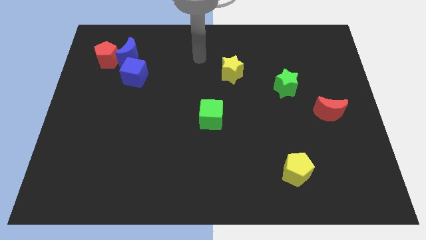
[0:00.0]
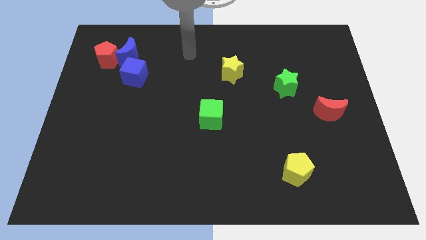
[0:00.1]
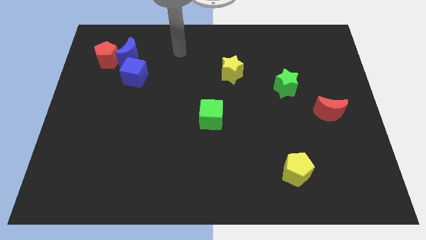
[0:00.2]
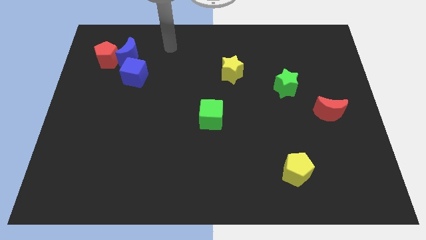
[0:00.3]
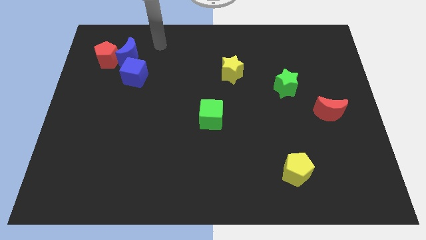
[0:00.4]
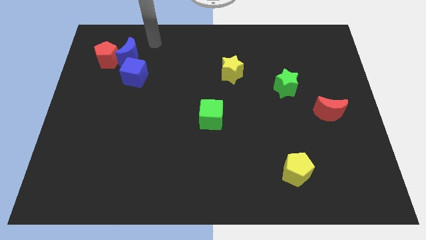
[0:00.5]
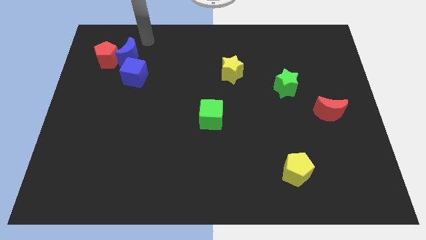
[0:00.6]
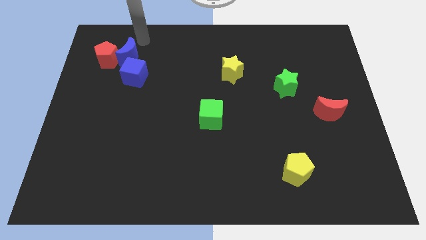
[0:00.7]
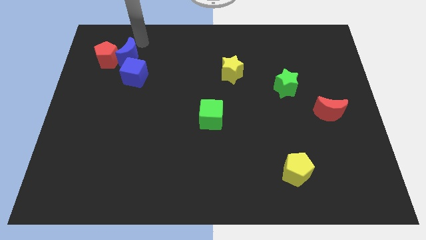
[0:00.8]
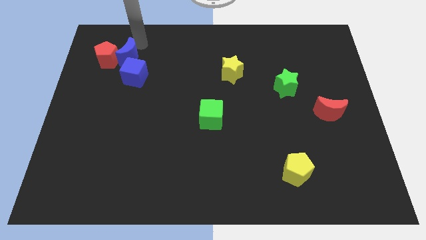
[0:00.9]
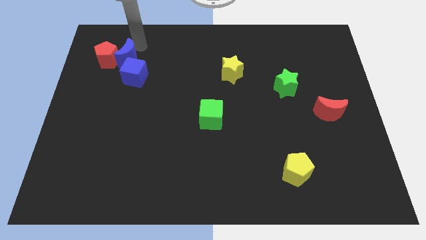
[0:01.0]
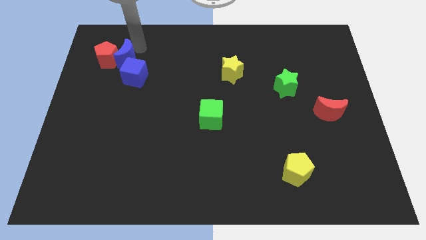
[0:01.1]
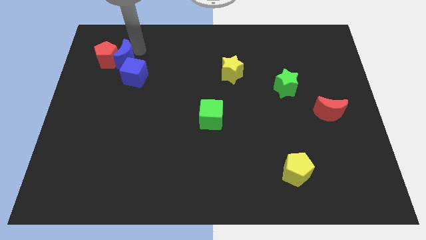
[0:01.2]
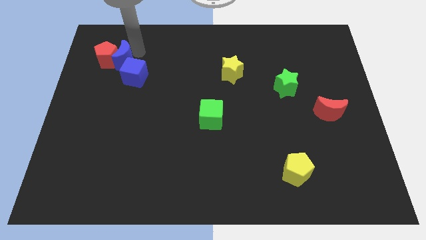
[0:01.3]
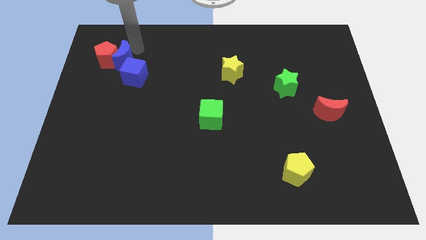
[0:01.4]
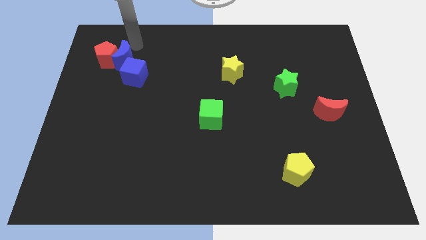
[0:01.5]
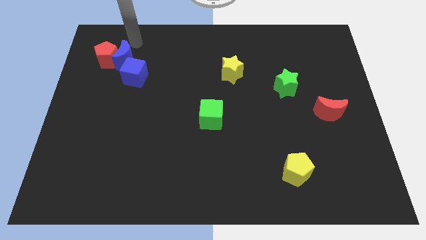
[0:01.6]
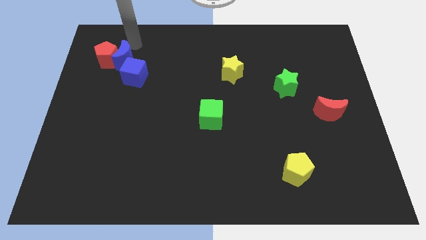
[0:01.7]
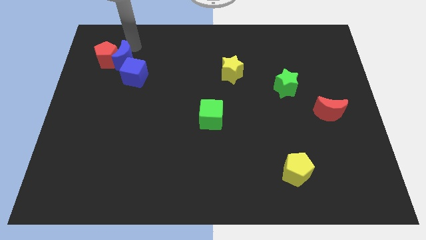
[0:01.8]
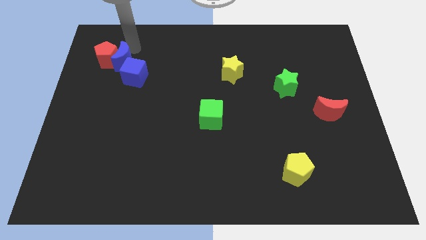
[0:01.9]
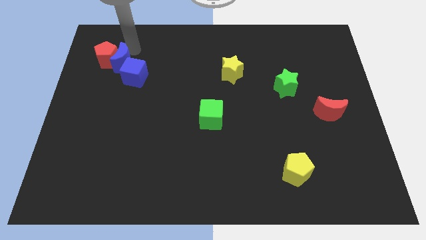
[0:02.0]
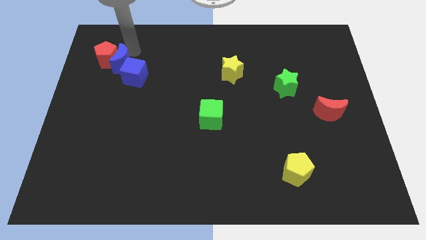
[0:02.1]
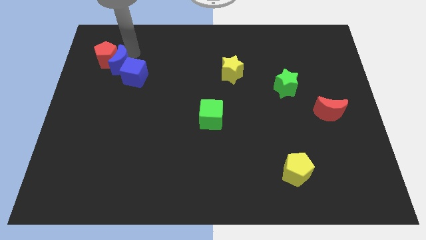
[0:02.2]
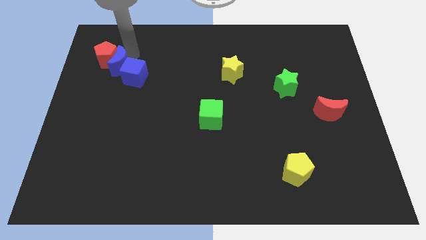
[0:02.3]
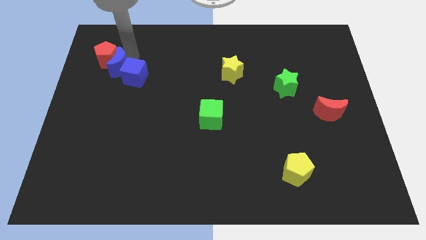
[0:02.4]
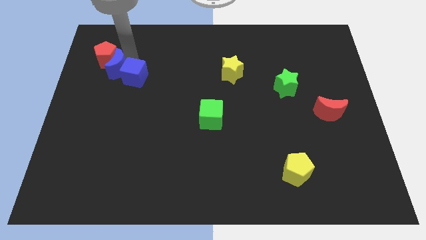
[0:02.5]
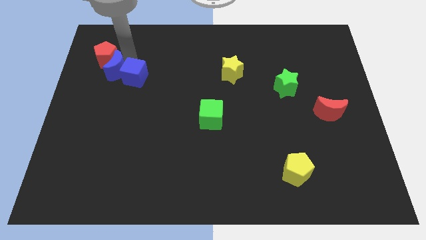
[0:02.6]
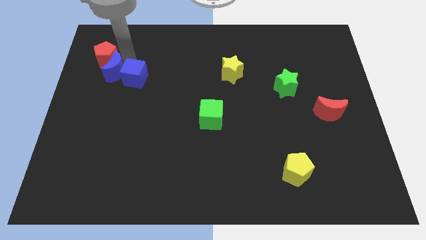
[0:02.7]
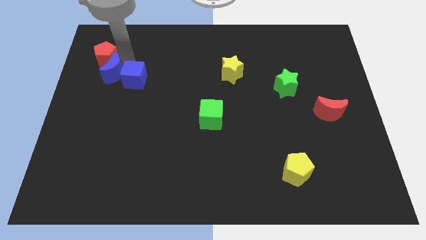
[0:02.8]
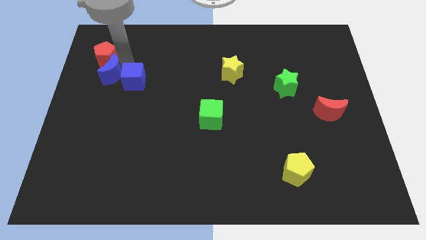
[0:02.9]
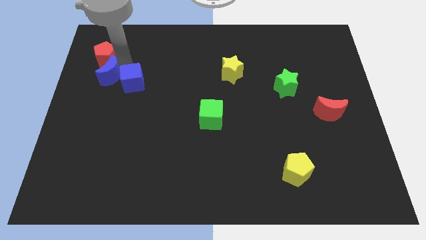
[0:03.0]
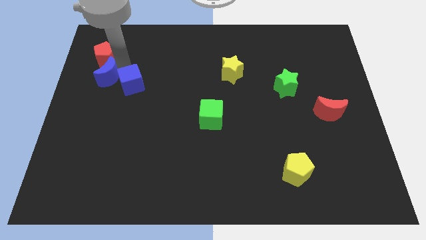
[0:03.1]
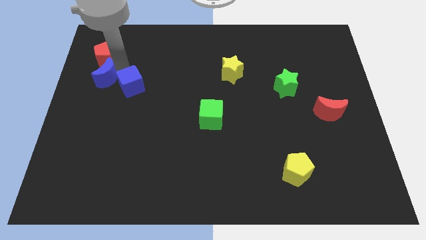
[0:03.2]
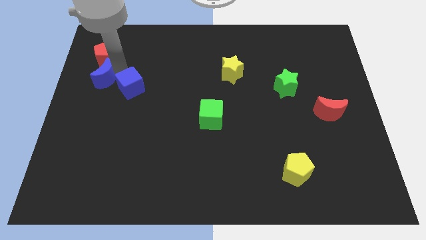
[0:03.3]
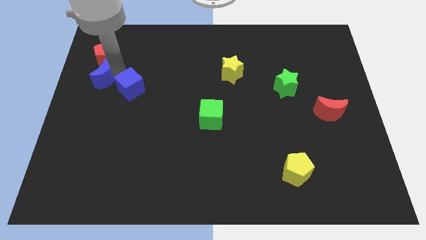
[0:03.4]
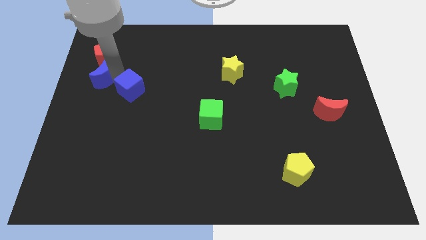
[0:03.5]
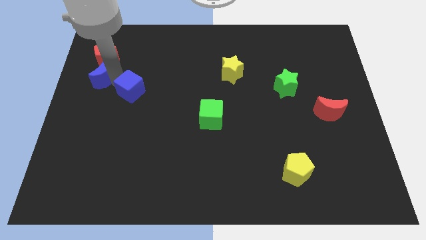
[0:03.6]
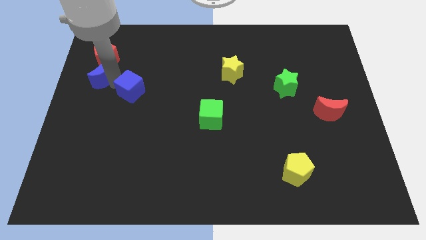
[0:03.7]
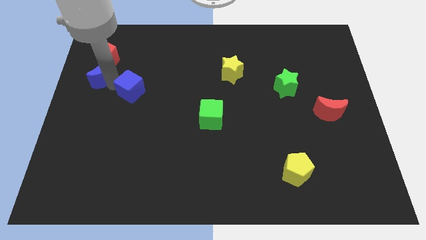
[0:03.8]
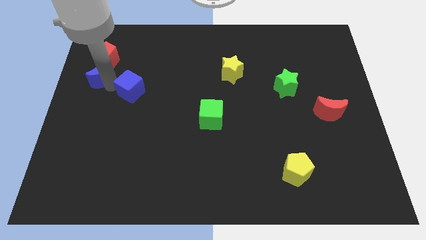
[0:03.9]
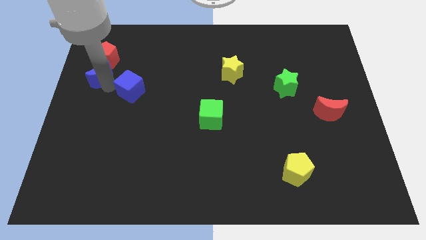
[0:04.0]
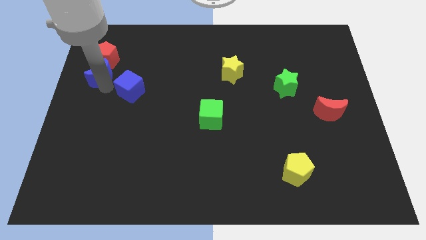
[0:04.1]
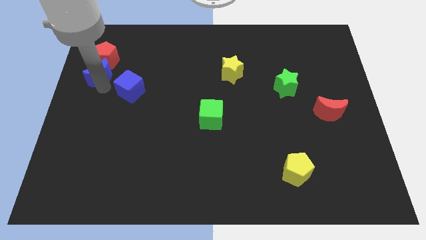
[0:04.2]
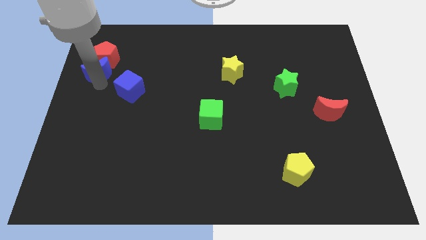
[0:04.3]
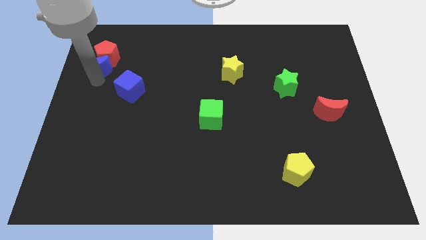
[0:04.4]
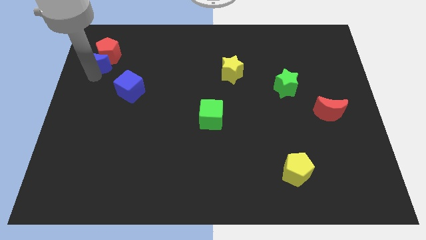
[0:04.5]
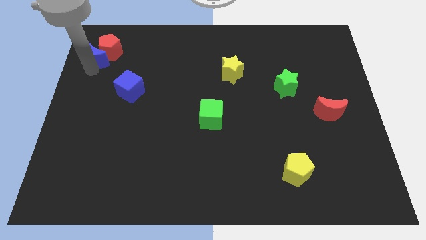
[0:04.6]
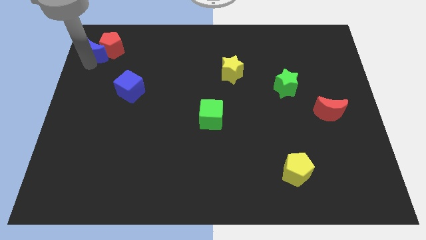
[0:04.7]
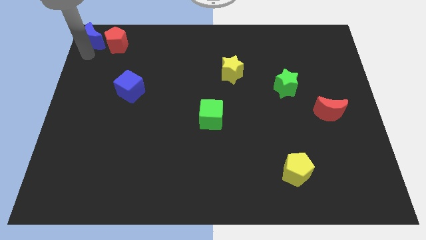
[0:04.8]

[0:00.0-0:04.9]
slide the blue moon to the top left corner

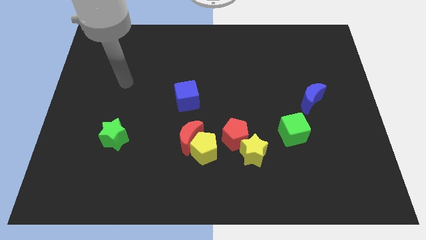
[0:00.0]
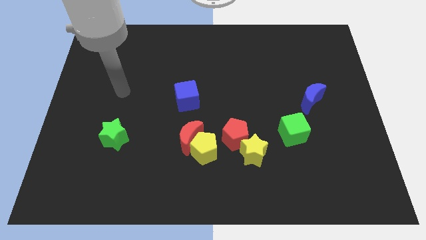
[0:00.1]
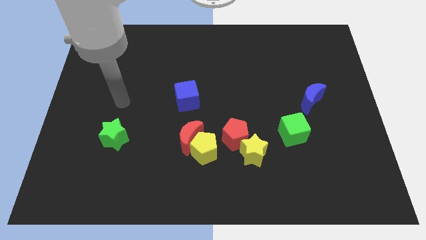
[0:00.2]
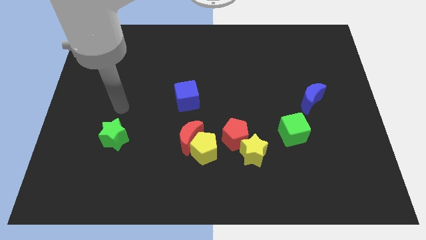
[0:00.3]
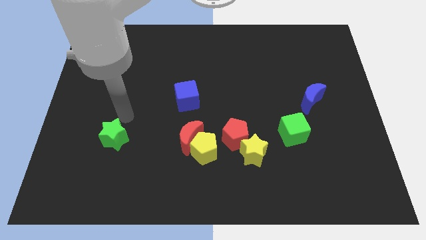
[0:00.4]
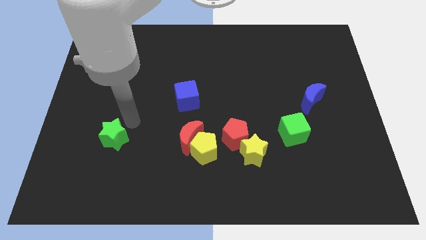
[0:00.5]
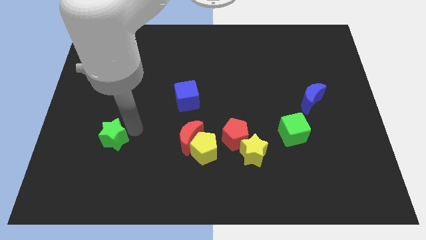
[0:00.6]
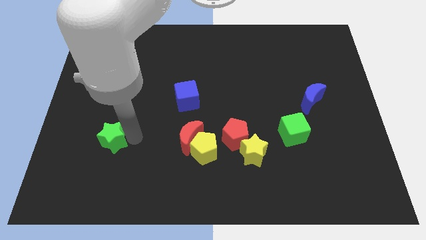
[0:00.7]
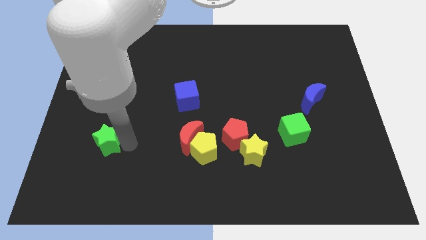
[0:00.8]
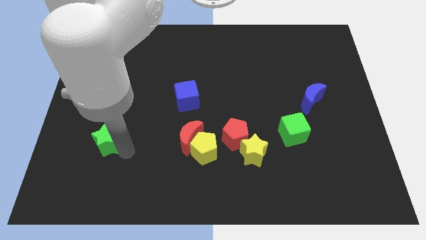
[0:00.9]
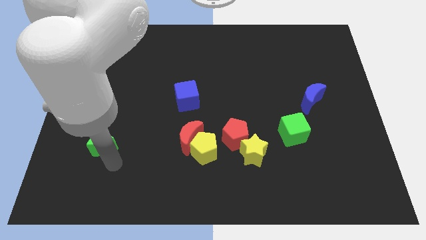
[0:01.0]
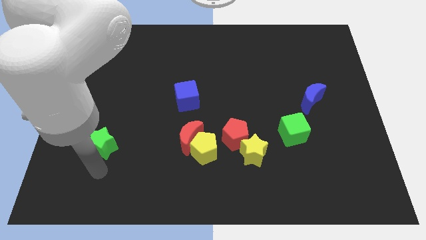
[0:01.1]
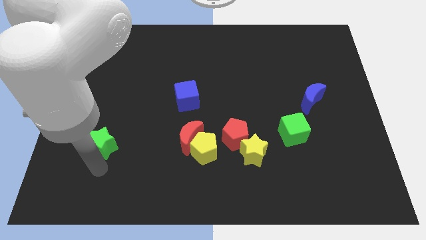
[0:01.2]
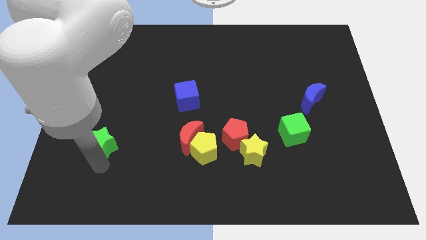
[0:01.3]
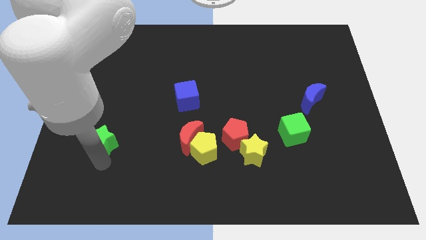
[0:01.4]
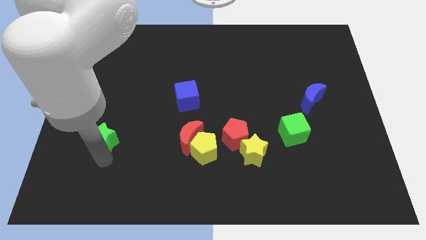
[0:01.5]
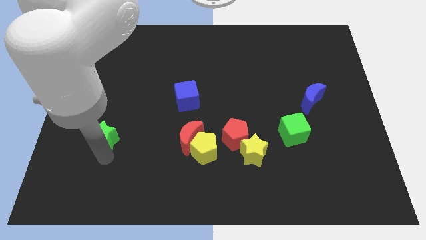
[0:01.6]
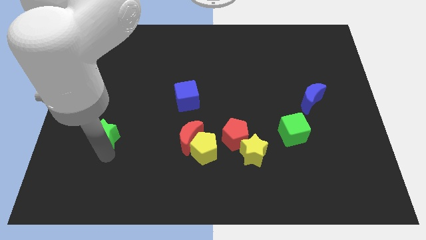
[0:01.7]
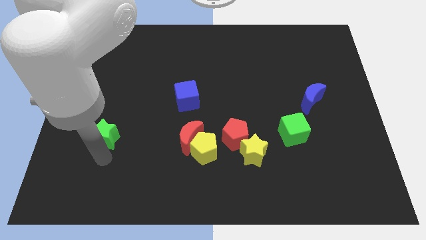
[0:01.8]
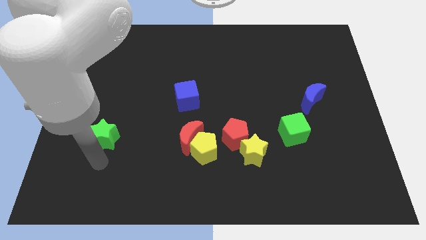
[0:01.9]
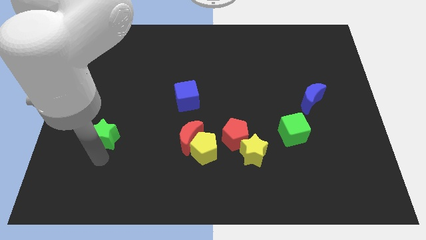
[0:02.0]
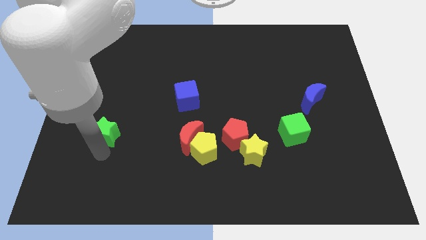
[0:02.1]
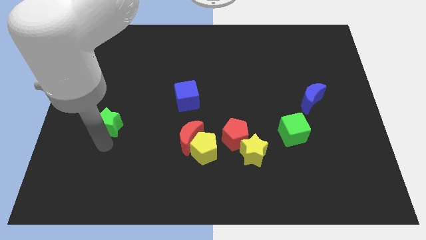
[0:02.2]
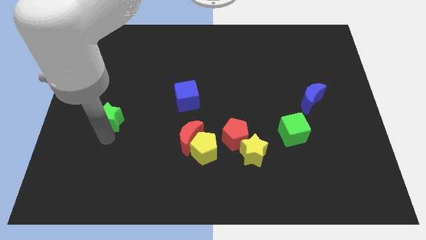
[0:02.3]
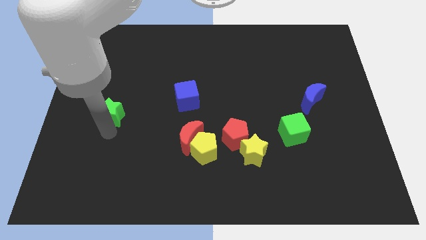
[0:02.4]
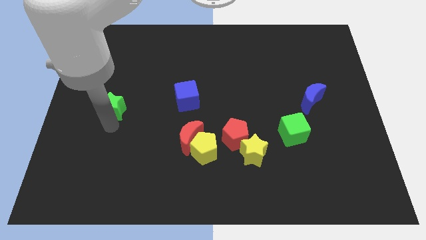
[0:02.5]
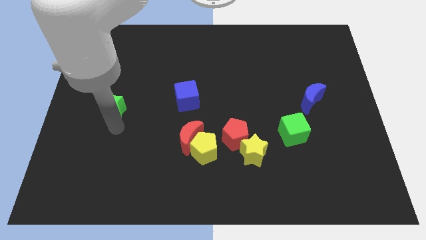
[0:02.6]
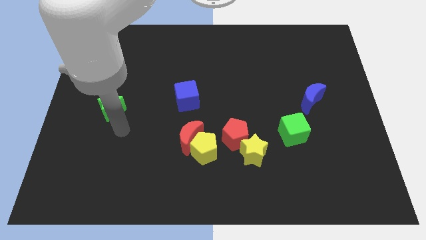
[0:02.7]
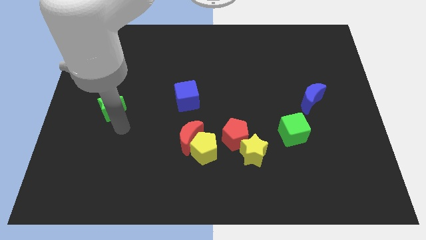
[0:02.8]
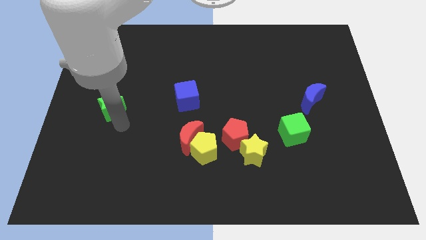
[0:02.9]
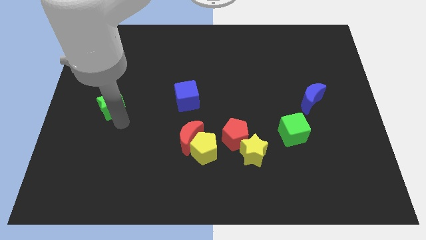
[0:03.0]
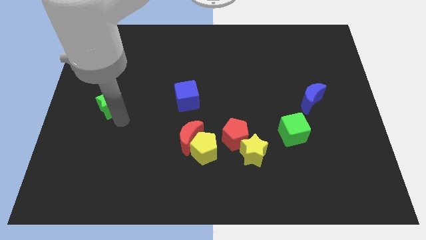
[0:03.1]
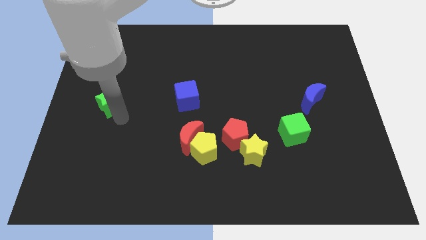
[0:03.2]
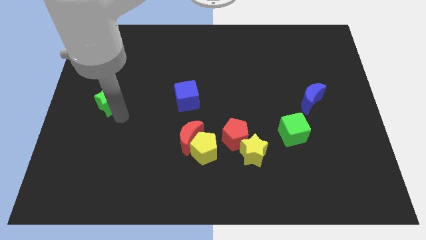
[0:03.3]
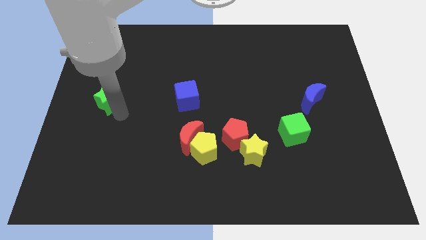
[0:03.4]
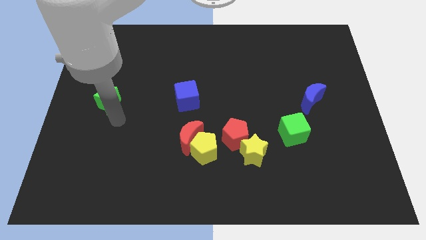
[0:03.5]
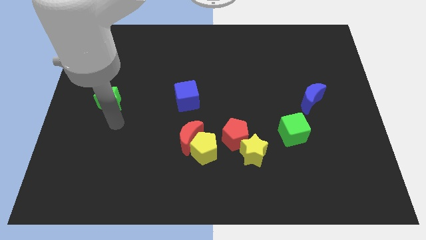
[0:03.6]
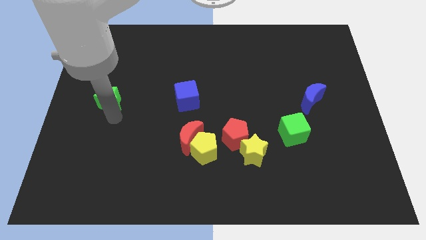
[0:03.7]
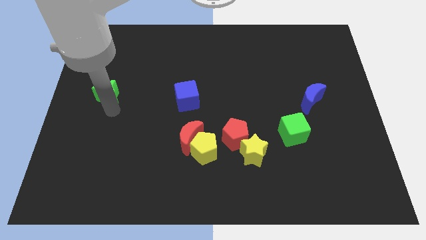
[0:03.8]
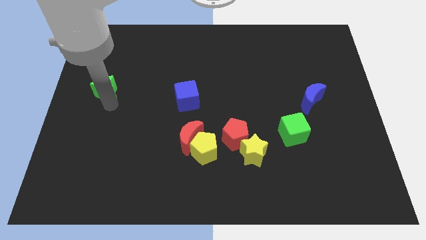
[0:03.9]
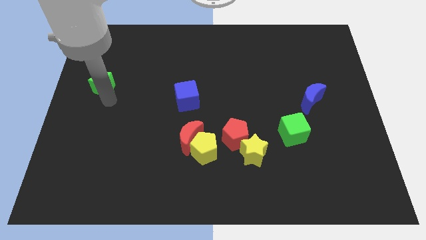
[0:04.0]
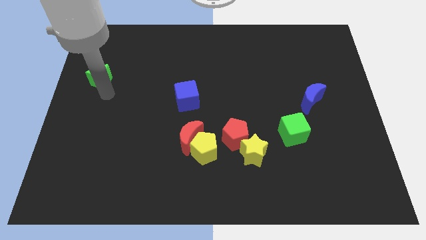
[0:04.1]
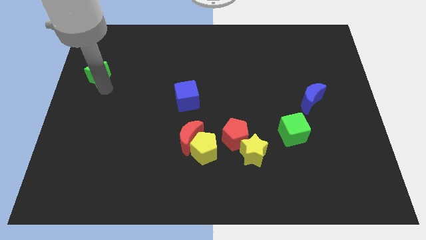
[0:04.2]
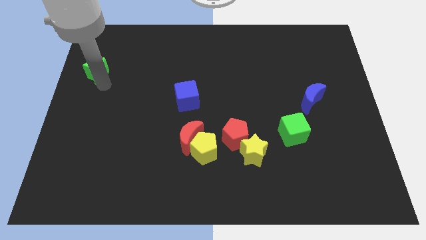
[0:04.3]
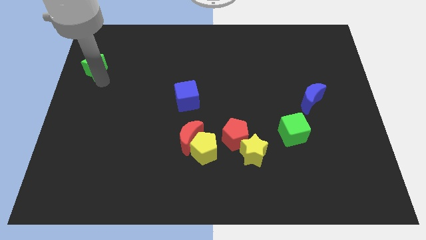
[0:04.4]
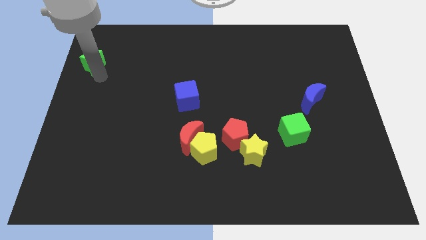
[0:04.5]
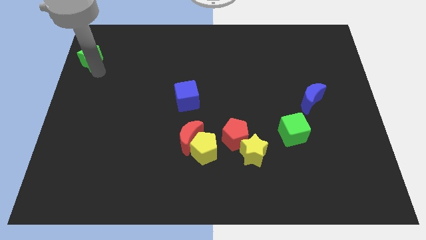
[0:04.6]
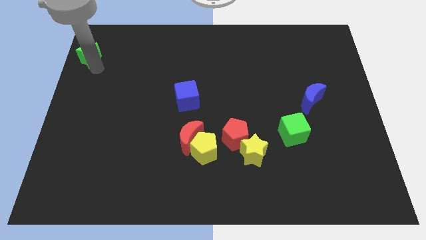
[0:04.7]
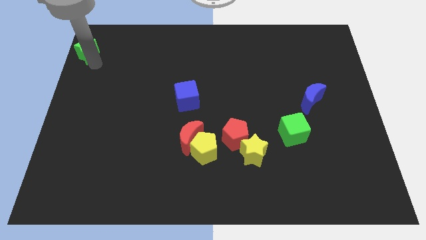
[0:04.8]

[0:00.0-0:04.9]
move the green star to the upper left corner
